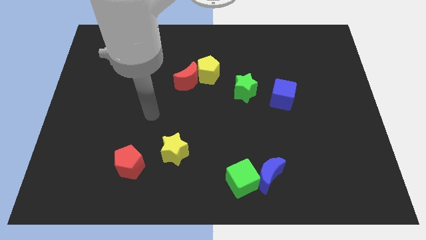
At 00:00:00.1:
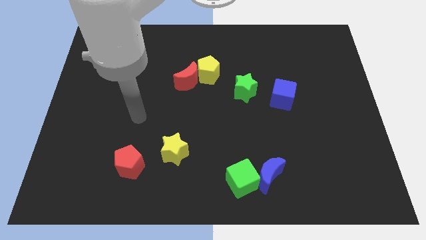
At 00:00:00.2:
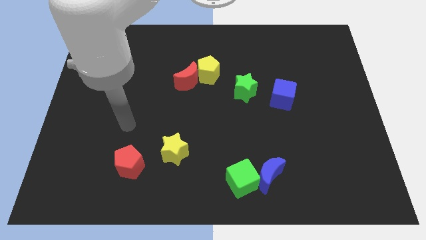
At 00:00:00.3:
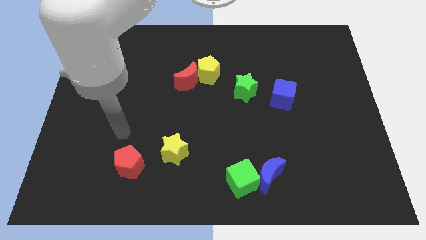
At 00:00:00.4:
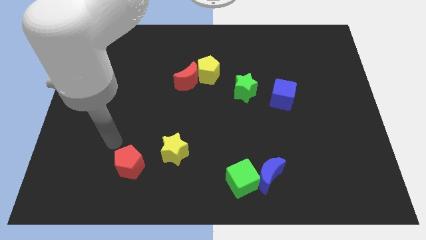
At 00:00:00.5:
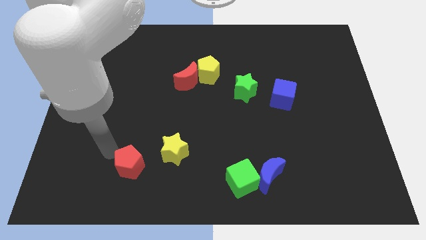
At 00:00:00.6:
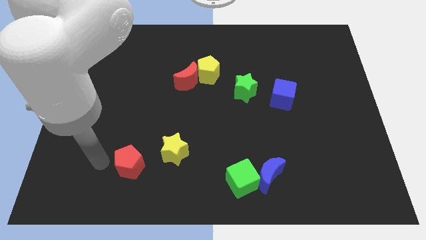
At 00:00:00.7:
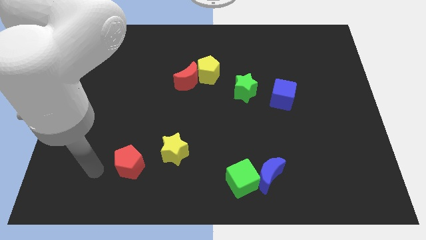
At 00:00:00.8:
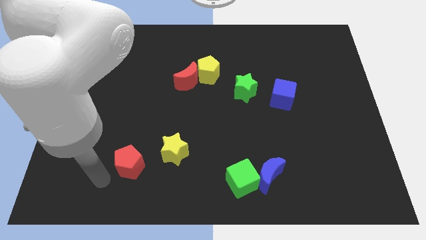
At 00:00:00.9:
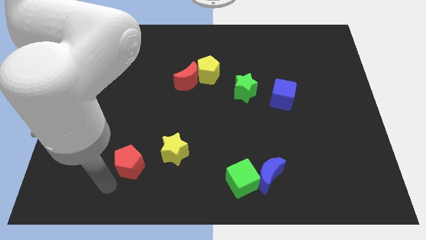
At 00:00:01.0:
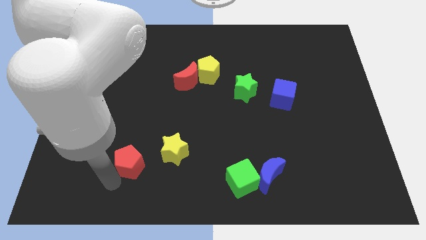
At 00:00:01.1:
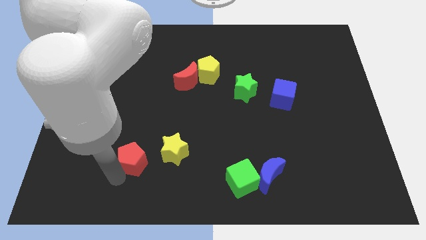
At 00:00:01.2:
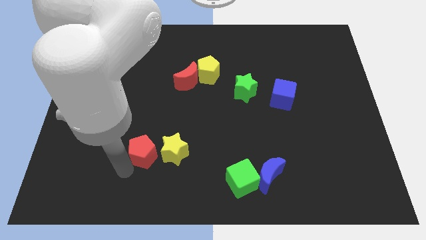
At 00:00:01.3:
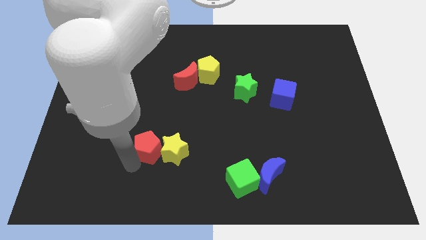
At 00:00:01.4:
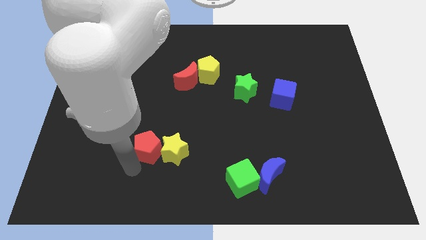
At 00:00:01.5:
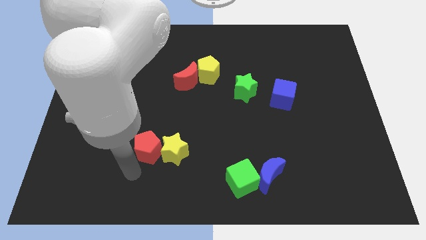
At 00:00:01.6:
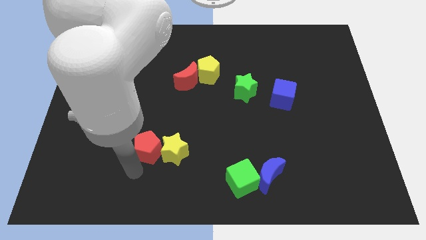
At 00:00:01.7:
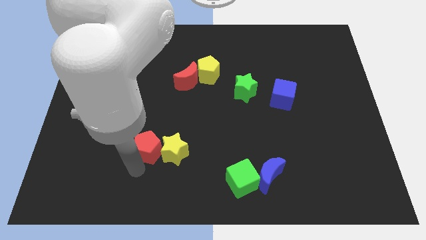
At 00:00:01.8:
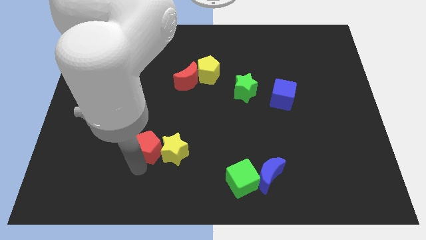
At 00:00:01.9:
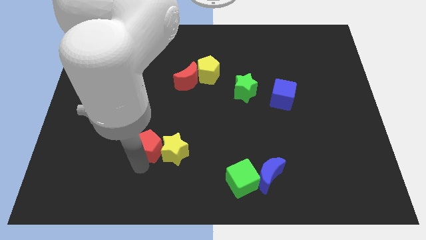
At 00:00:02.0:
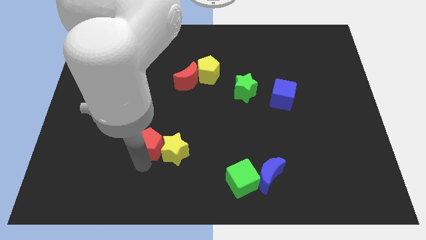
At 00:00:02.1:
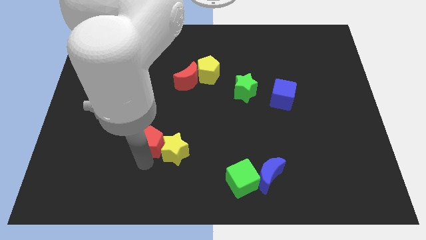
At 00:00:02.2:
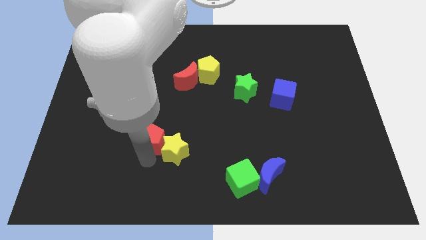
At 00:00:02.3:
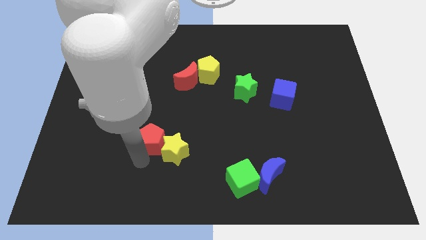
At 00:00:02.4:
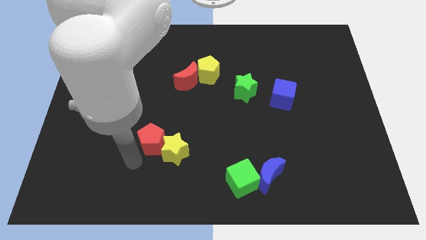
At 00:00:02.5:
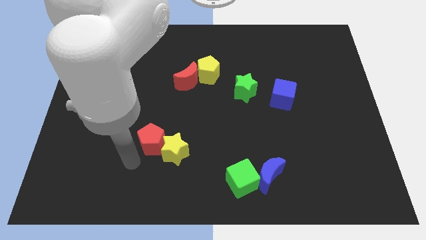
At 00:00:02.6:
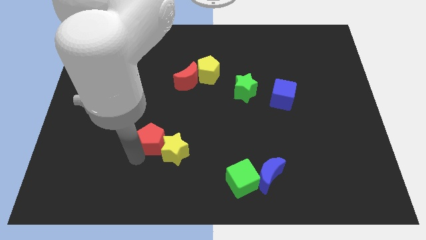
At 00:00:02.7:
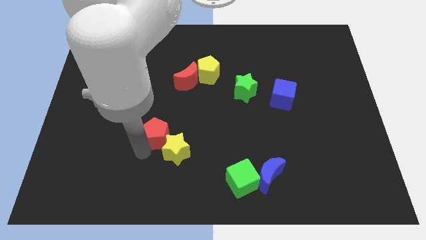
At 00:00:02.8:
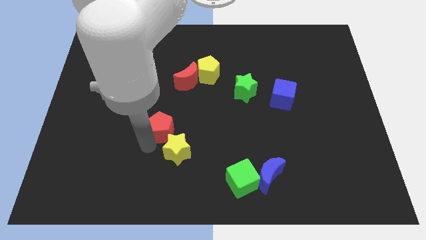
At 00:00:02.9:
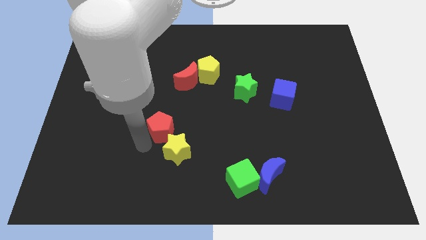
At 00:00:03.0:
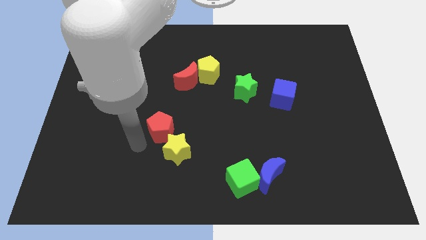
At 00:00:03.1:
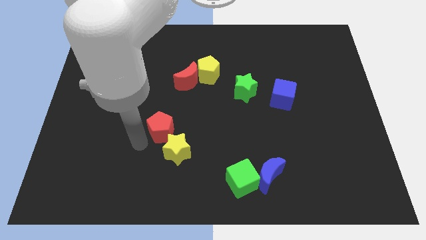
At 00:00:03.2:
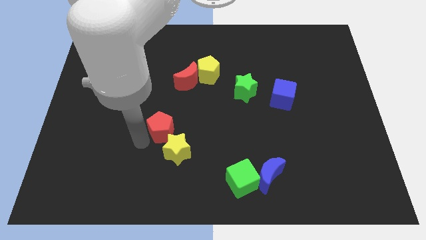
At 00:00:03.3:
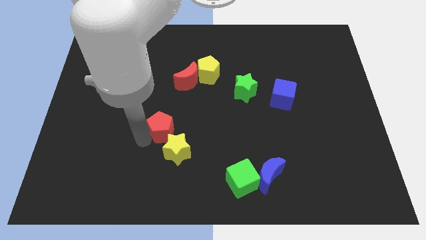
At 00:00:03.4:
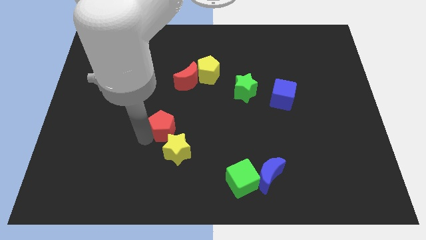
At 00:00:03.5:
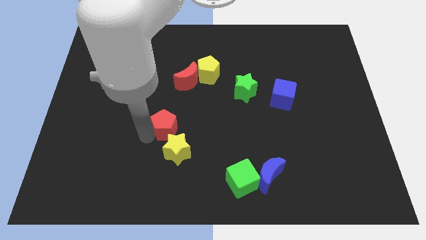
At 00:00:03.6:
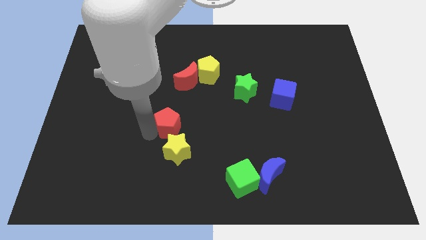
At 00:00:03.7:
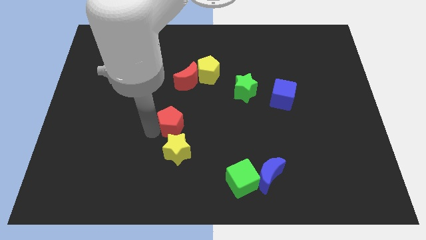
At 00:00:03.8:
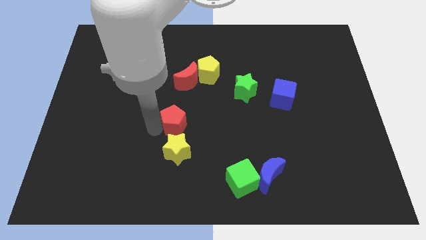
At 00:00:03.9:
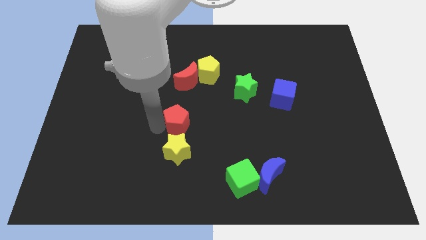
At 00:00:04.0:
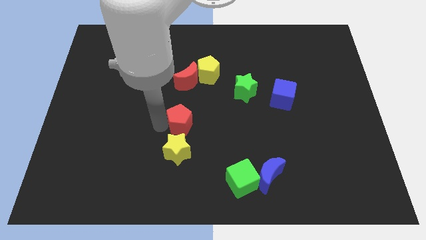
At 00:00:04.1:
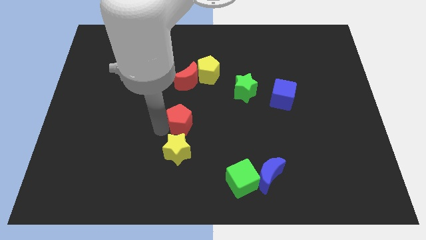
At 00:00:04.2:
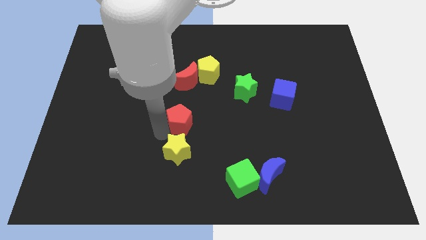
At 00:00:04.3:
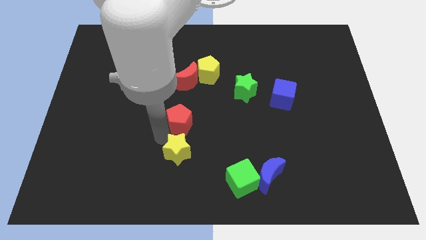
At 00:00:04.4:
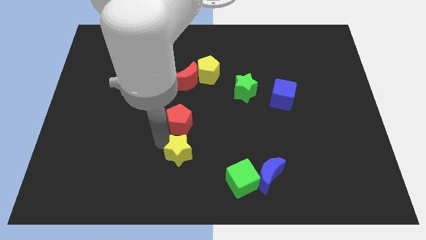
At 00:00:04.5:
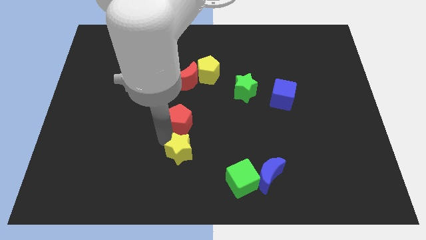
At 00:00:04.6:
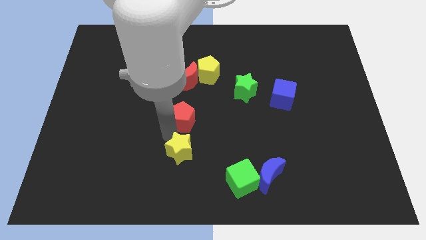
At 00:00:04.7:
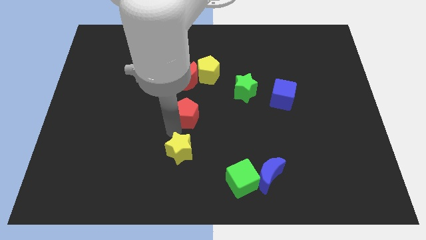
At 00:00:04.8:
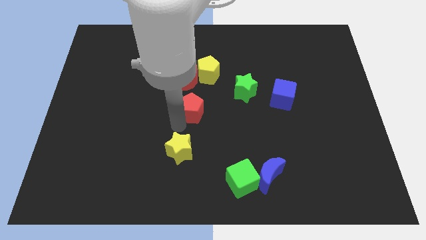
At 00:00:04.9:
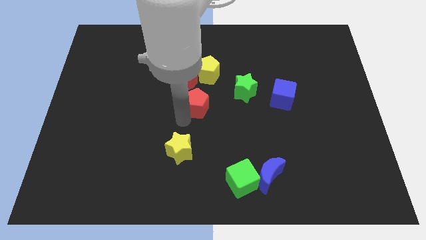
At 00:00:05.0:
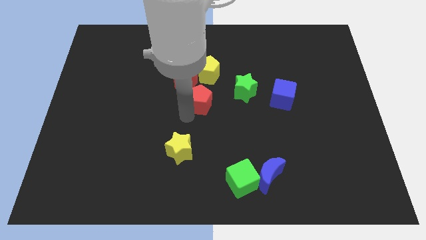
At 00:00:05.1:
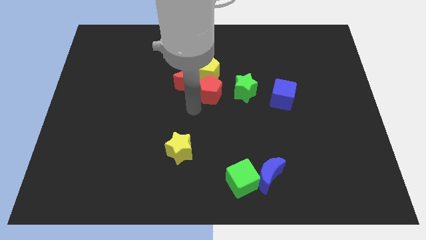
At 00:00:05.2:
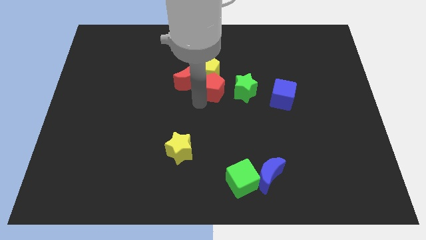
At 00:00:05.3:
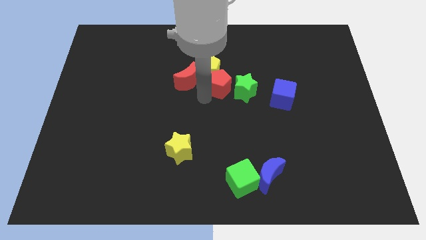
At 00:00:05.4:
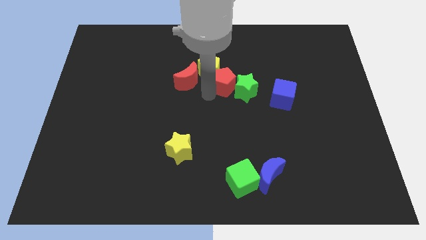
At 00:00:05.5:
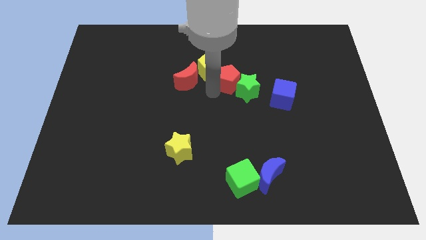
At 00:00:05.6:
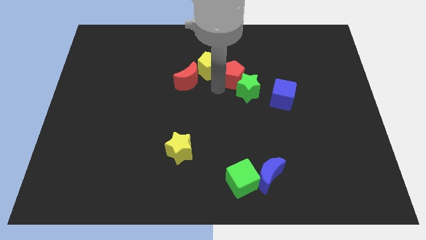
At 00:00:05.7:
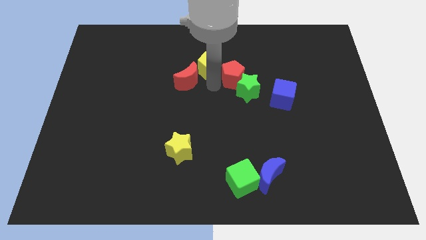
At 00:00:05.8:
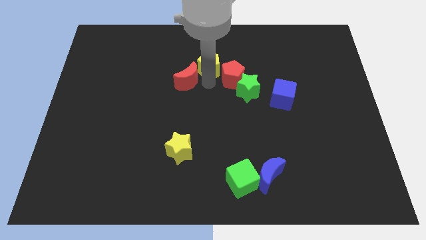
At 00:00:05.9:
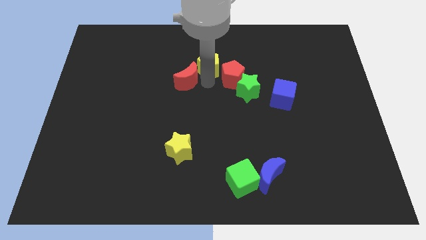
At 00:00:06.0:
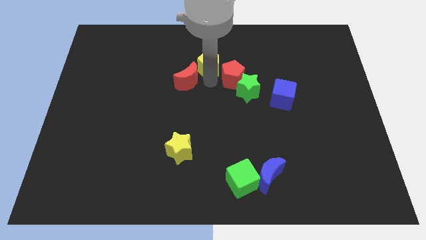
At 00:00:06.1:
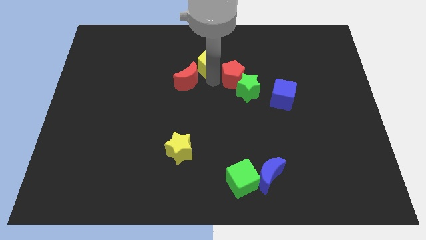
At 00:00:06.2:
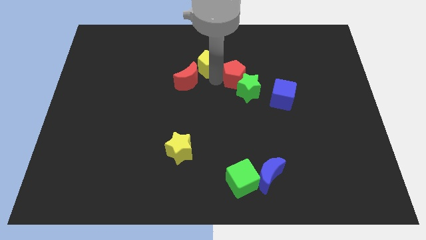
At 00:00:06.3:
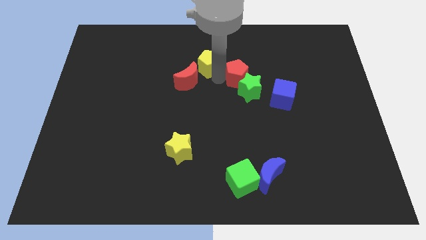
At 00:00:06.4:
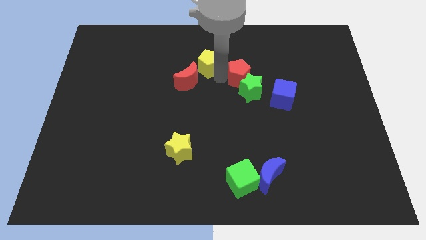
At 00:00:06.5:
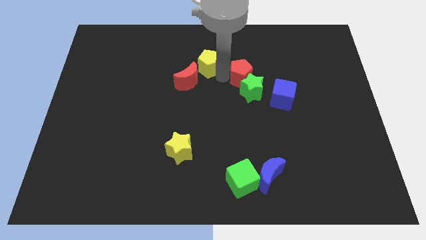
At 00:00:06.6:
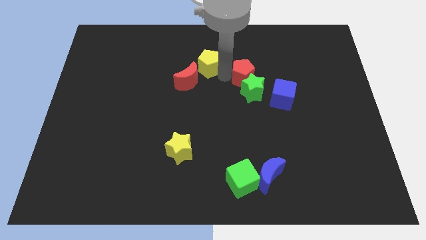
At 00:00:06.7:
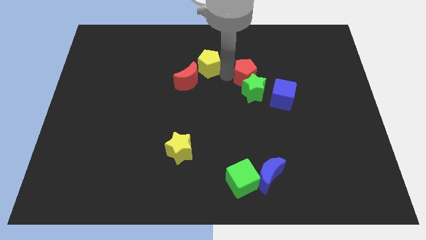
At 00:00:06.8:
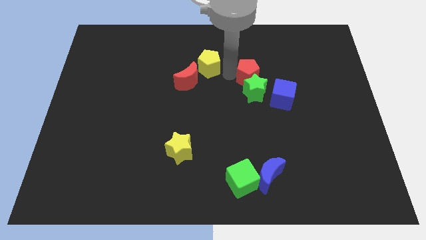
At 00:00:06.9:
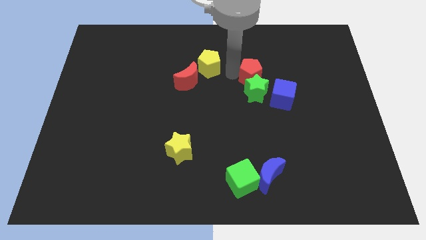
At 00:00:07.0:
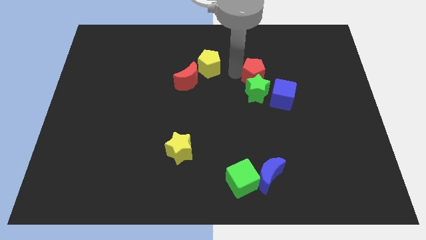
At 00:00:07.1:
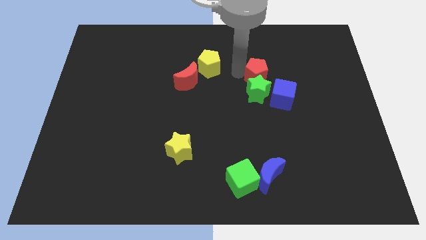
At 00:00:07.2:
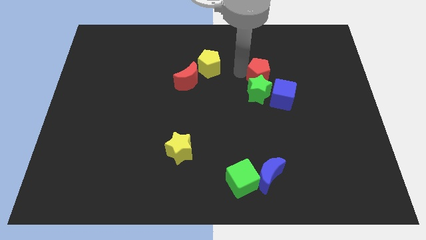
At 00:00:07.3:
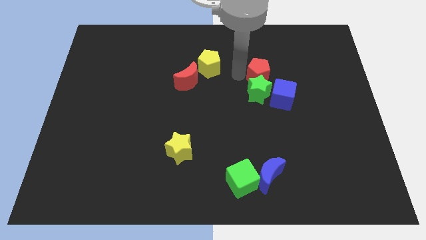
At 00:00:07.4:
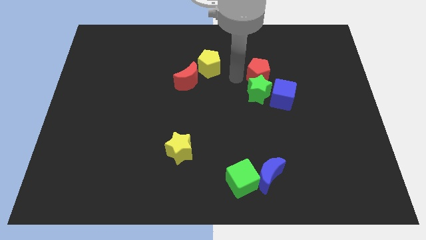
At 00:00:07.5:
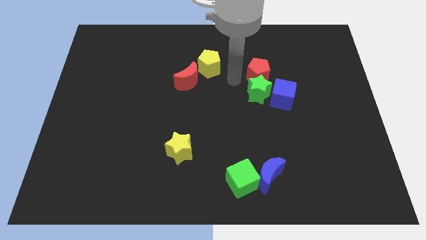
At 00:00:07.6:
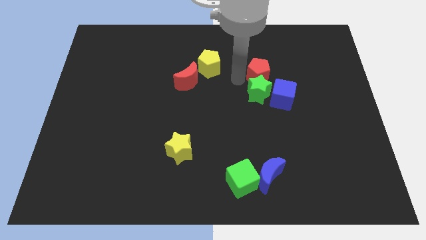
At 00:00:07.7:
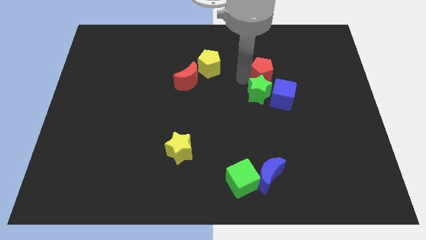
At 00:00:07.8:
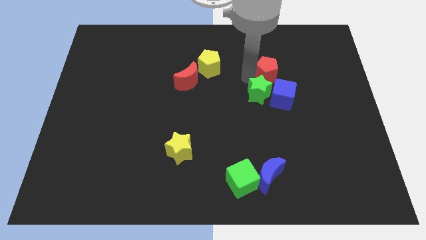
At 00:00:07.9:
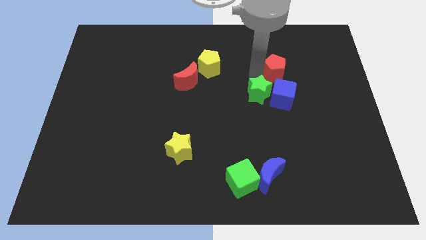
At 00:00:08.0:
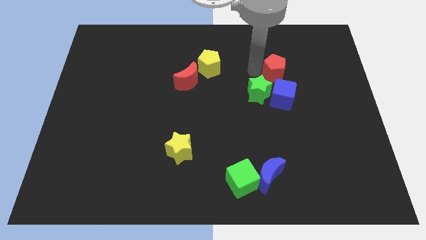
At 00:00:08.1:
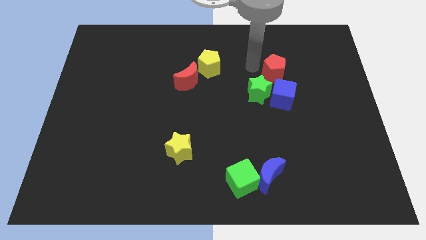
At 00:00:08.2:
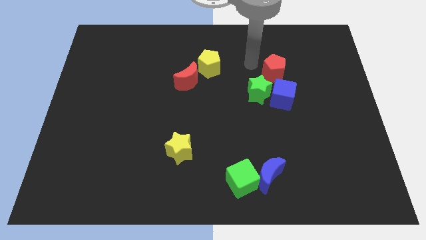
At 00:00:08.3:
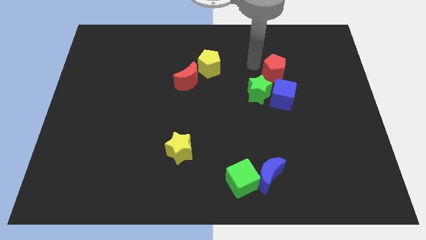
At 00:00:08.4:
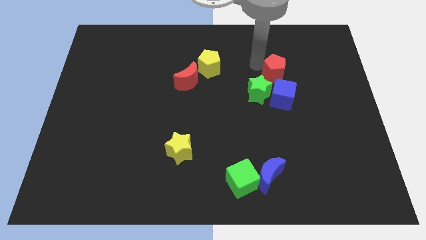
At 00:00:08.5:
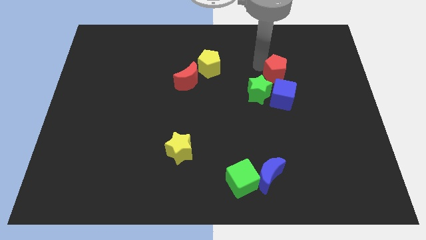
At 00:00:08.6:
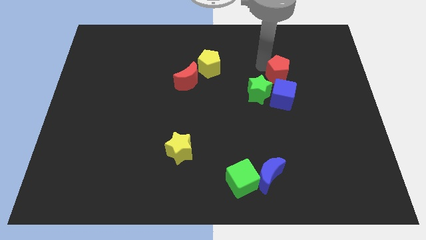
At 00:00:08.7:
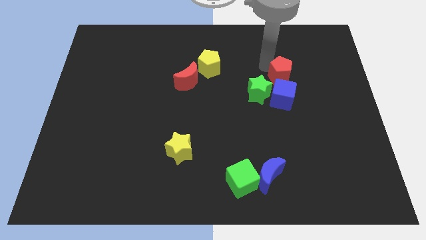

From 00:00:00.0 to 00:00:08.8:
move the red pentagon diagonally up and to the right of the blue cube

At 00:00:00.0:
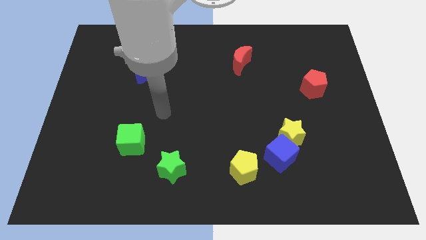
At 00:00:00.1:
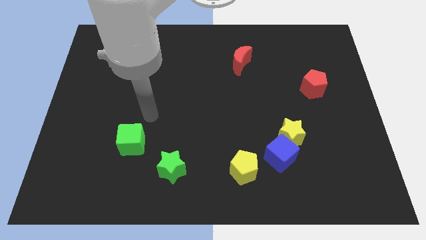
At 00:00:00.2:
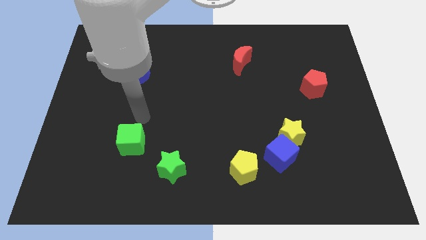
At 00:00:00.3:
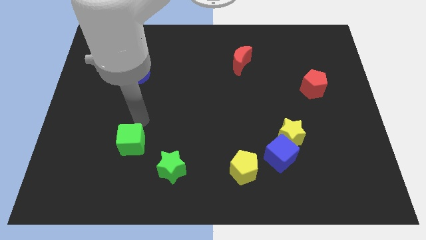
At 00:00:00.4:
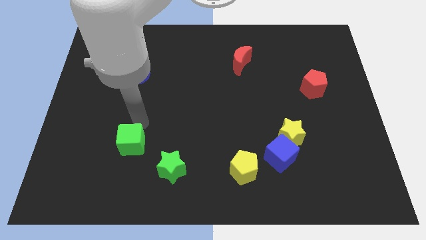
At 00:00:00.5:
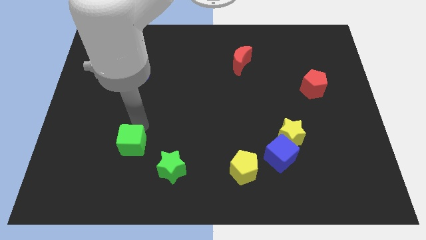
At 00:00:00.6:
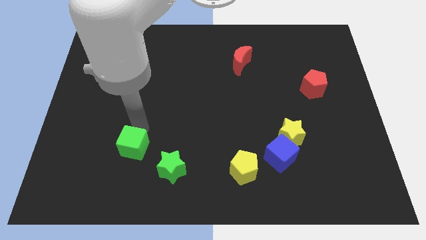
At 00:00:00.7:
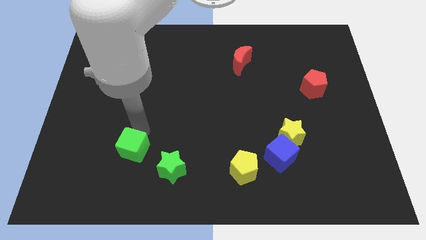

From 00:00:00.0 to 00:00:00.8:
slide the green cube to the left of the green star
